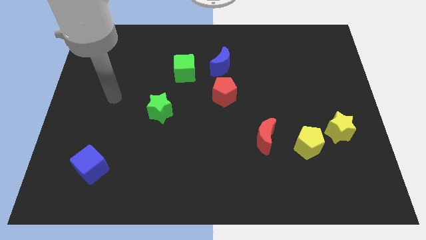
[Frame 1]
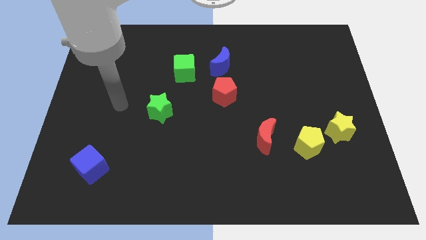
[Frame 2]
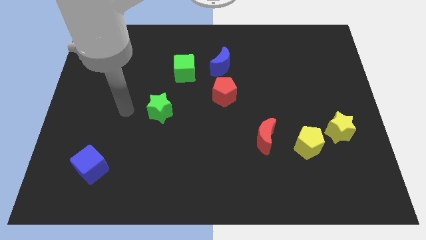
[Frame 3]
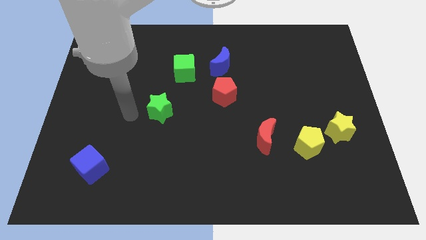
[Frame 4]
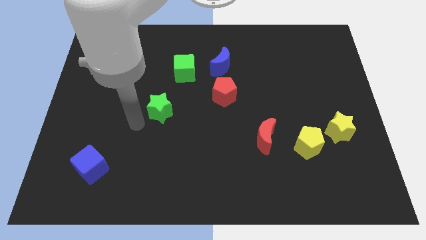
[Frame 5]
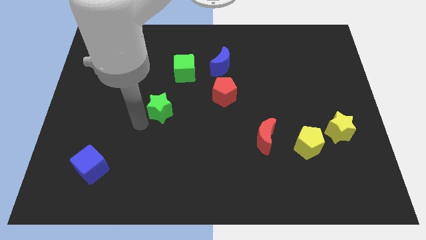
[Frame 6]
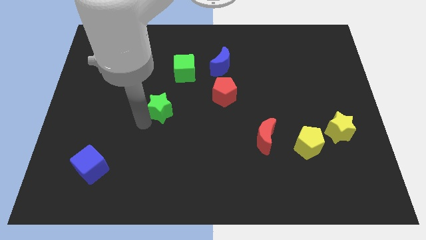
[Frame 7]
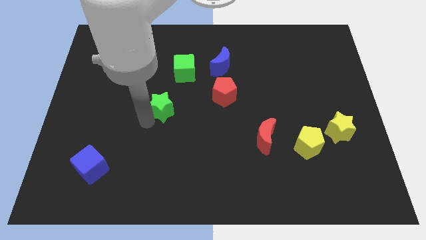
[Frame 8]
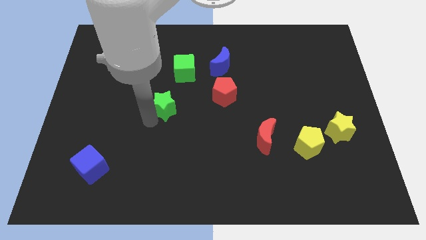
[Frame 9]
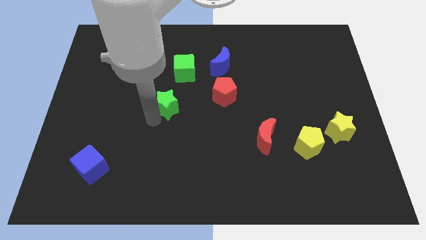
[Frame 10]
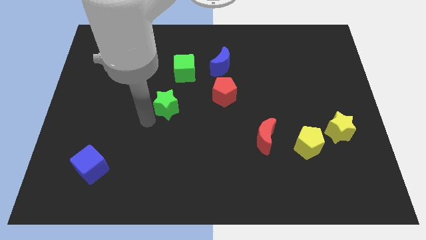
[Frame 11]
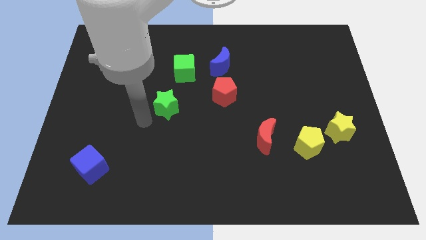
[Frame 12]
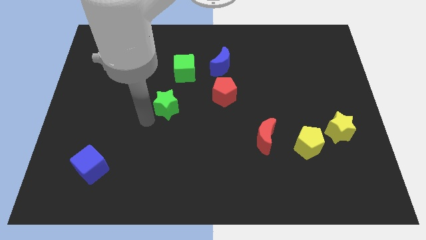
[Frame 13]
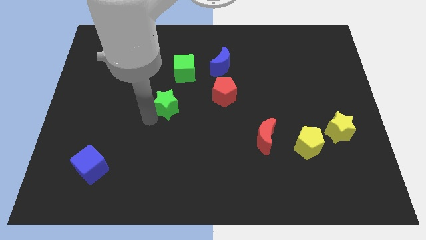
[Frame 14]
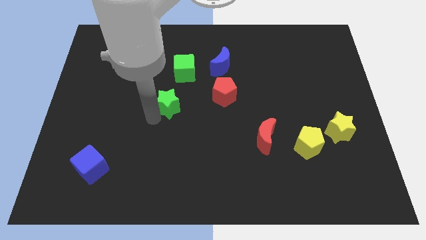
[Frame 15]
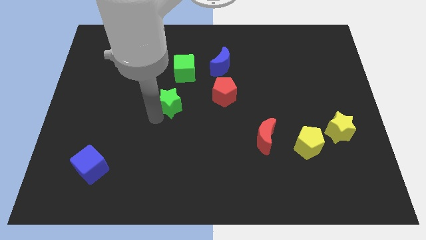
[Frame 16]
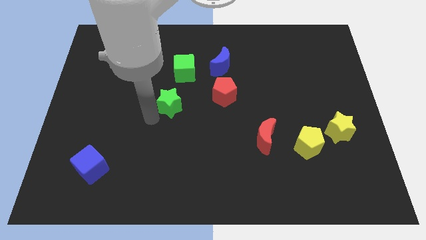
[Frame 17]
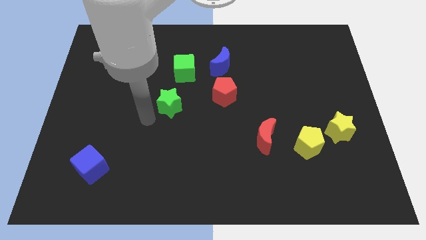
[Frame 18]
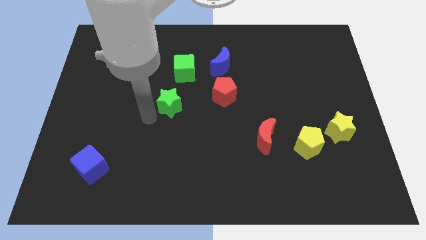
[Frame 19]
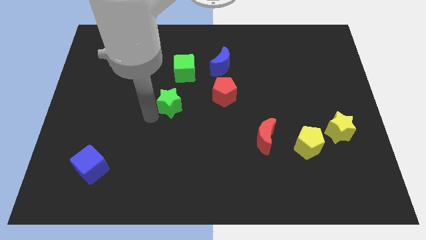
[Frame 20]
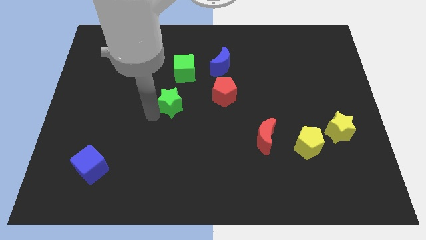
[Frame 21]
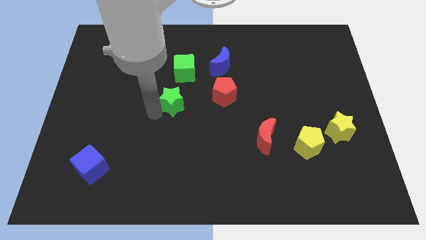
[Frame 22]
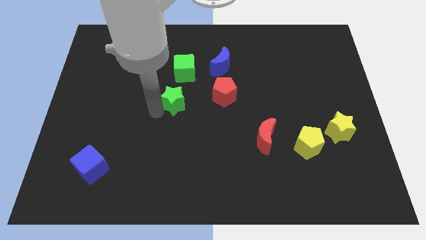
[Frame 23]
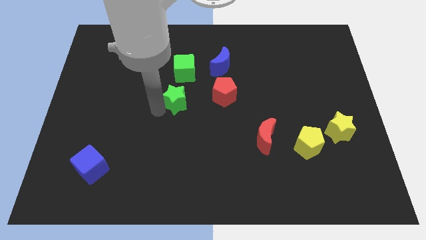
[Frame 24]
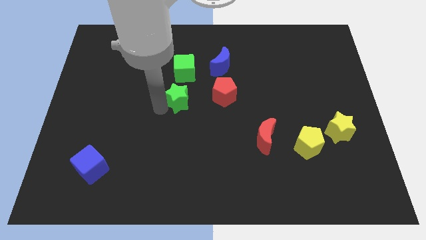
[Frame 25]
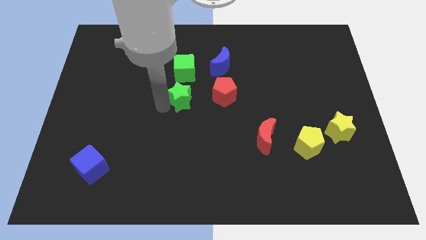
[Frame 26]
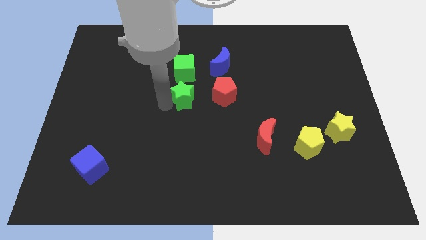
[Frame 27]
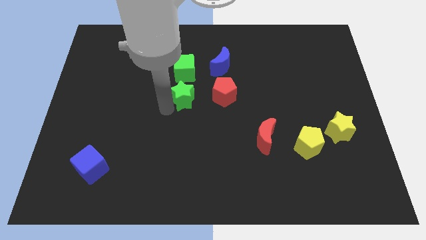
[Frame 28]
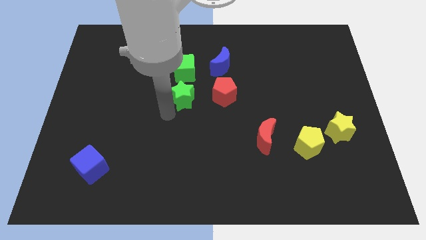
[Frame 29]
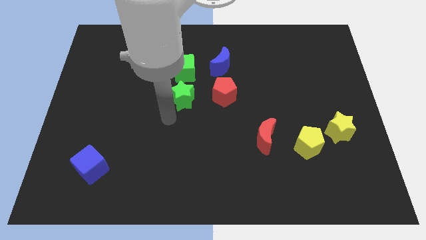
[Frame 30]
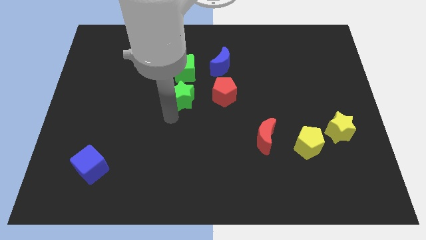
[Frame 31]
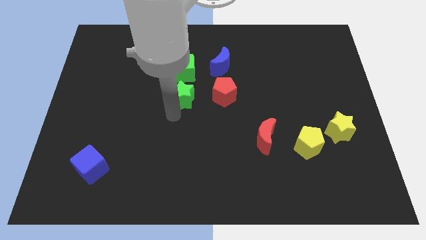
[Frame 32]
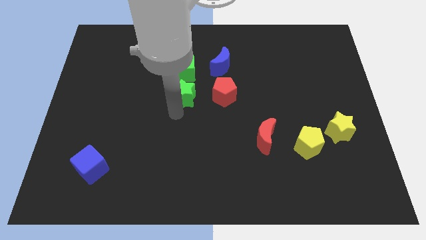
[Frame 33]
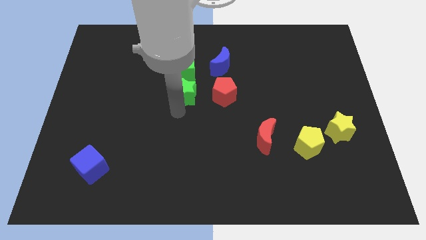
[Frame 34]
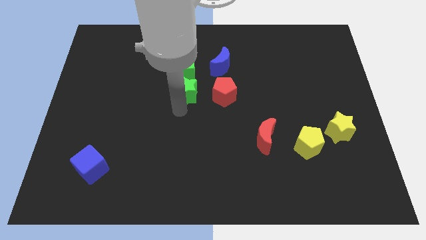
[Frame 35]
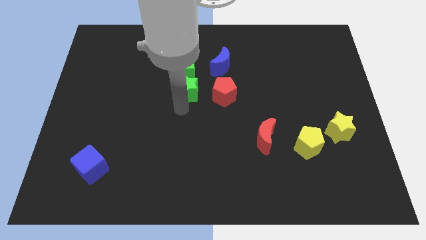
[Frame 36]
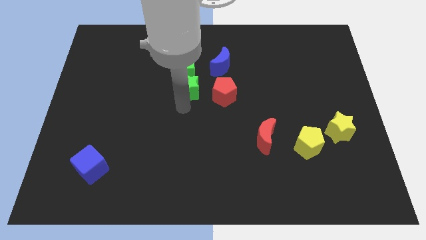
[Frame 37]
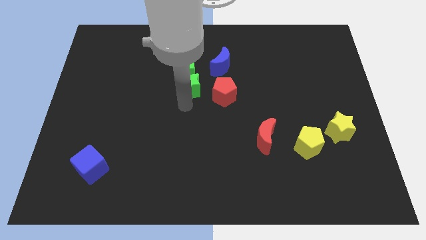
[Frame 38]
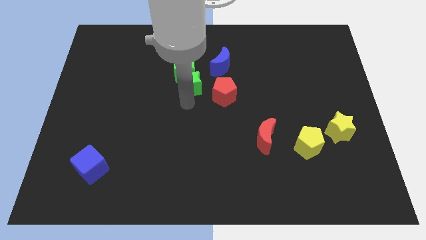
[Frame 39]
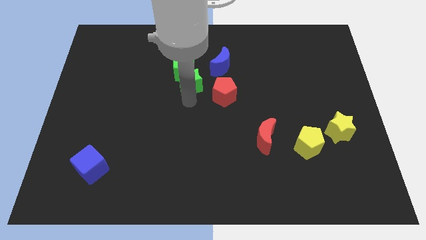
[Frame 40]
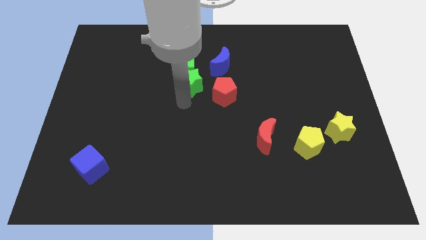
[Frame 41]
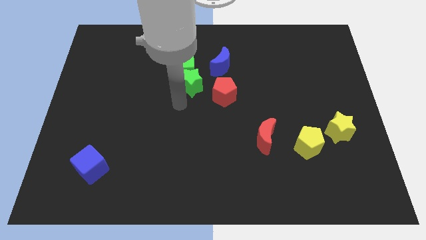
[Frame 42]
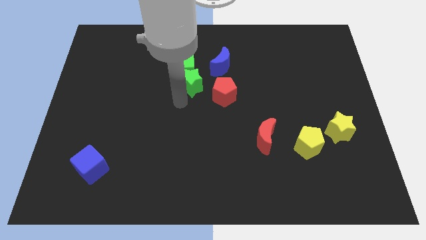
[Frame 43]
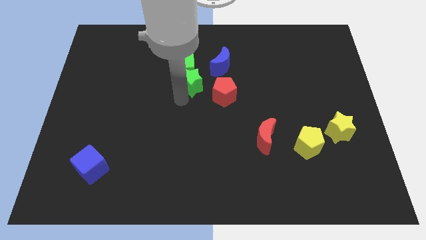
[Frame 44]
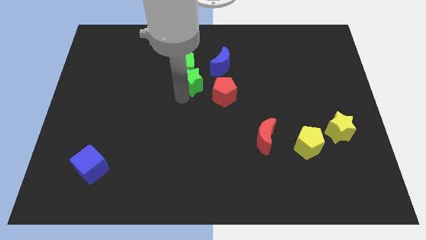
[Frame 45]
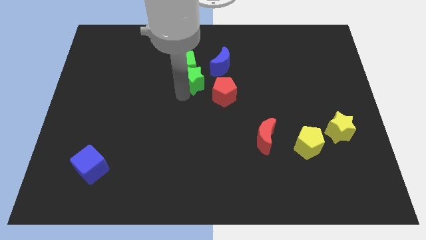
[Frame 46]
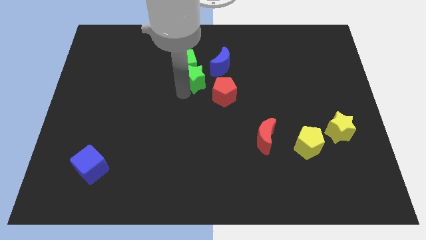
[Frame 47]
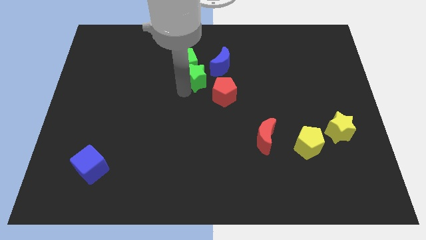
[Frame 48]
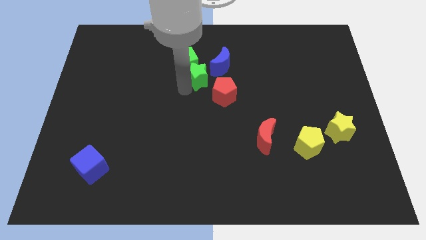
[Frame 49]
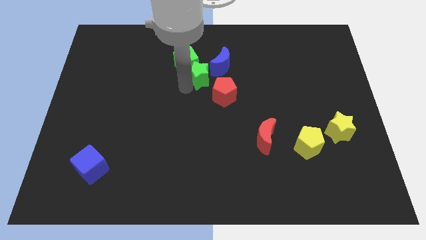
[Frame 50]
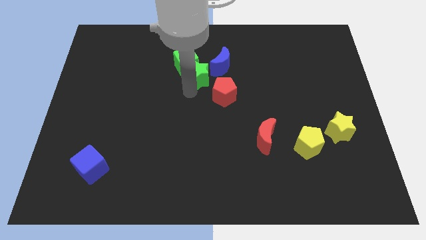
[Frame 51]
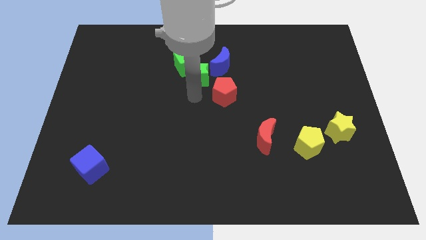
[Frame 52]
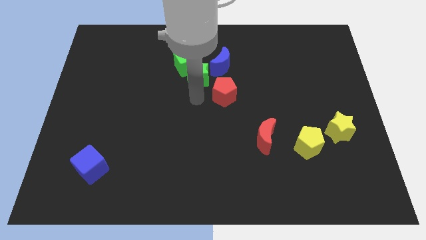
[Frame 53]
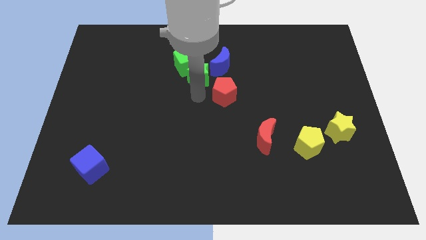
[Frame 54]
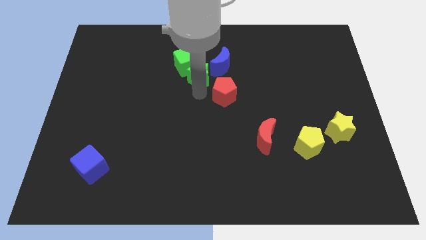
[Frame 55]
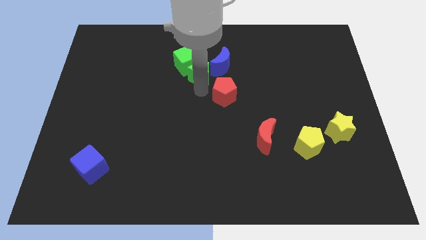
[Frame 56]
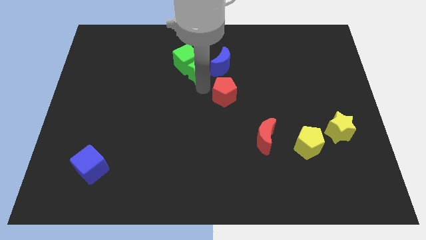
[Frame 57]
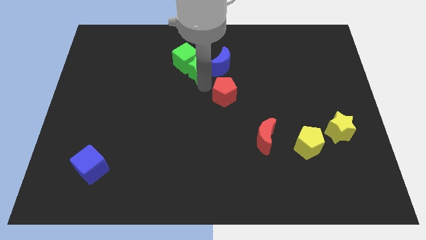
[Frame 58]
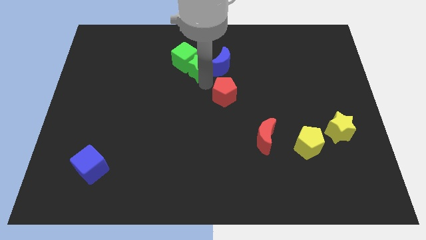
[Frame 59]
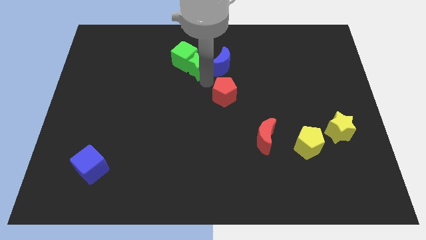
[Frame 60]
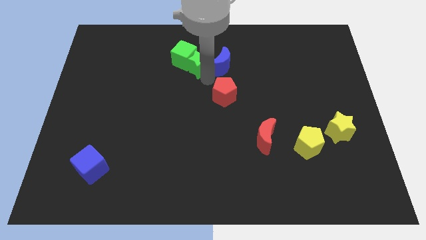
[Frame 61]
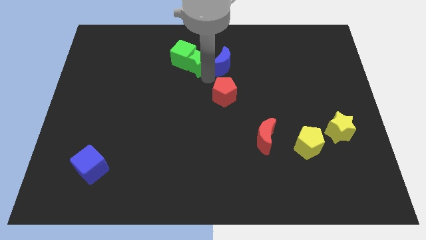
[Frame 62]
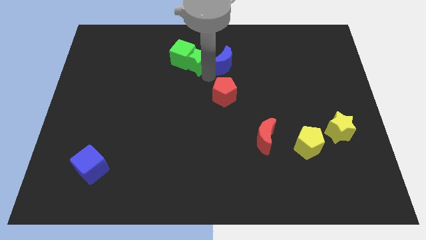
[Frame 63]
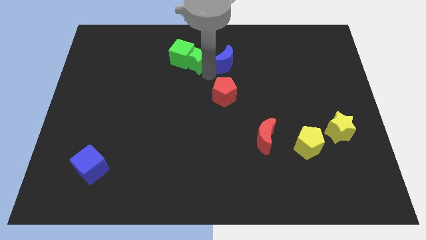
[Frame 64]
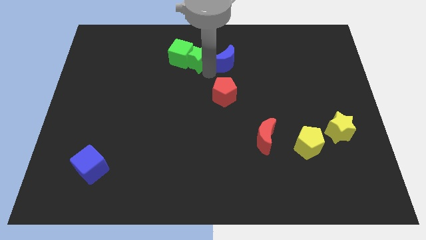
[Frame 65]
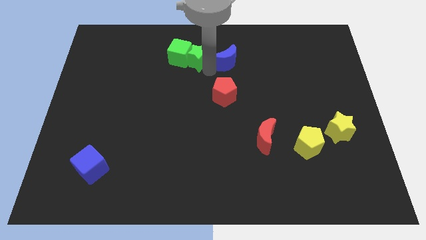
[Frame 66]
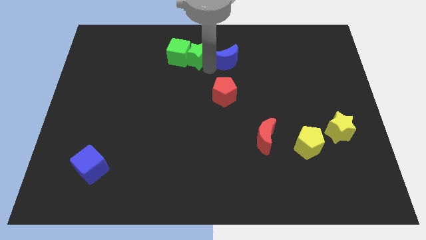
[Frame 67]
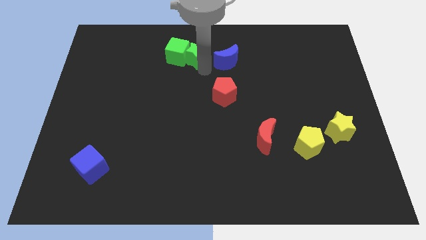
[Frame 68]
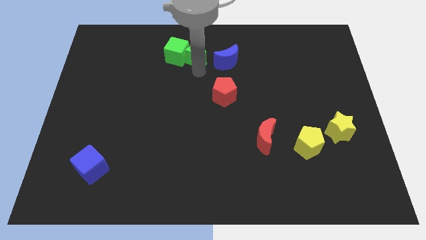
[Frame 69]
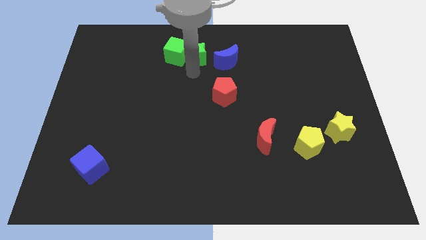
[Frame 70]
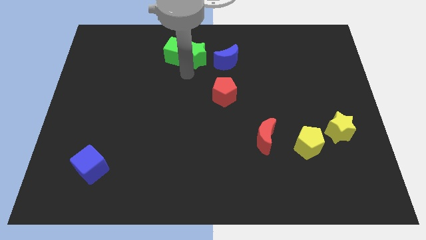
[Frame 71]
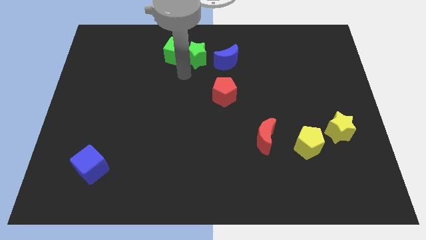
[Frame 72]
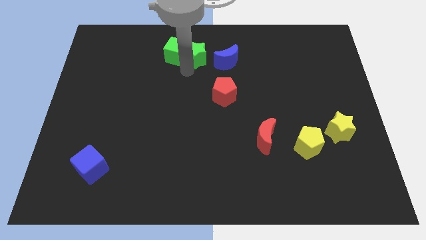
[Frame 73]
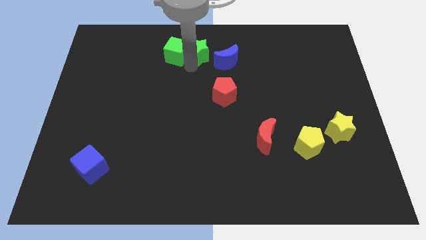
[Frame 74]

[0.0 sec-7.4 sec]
push the green star to the towards your base

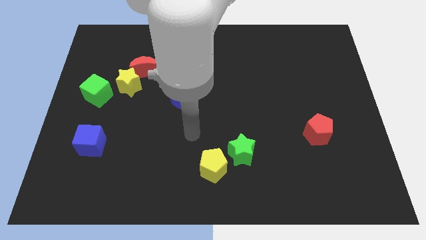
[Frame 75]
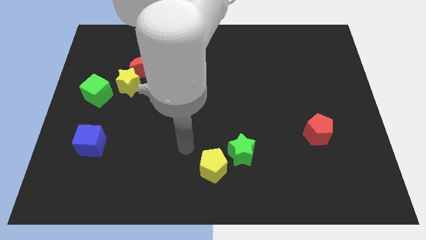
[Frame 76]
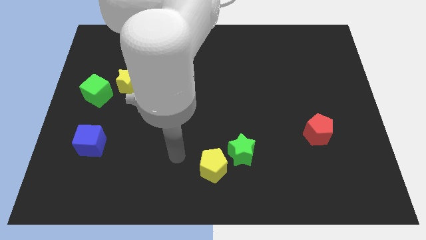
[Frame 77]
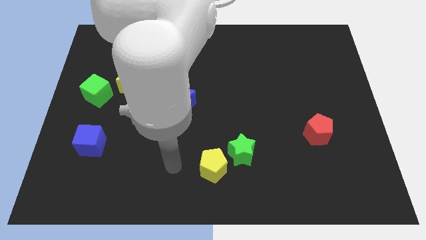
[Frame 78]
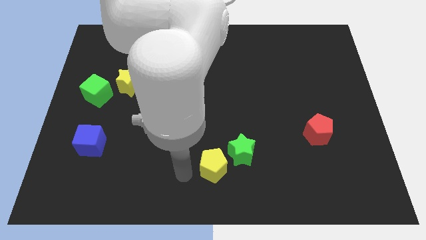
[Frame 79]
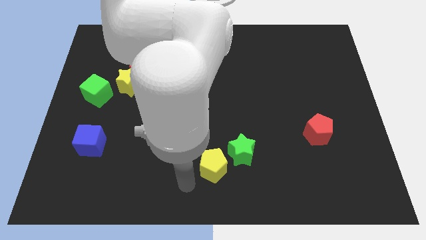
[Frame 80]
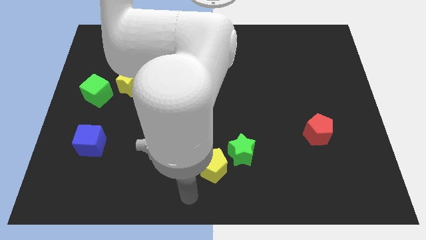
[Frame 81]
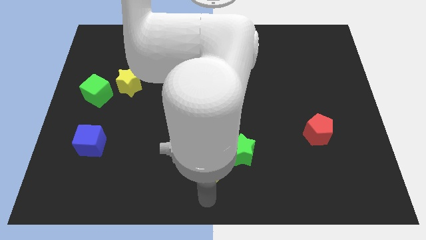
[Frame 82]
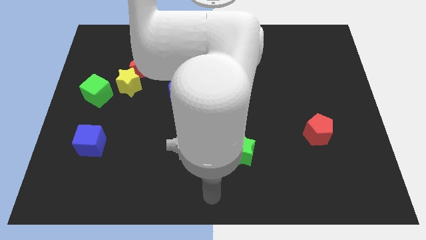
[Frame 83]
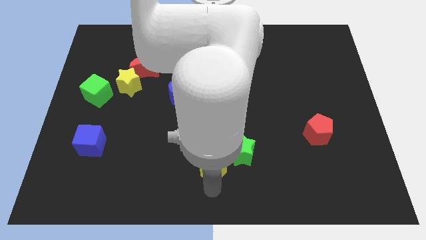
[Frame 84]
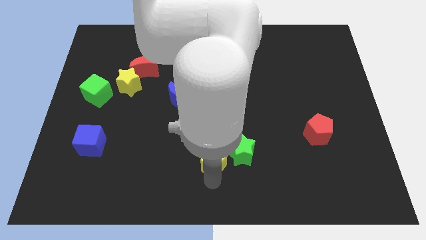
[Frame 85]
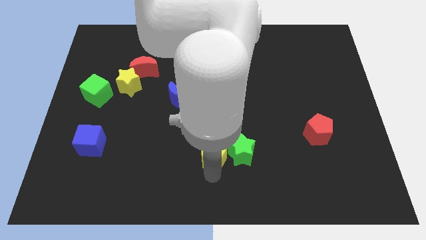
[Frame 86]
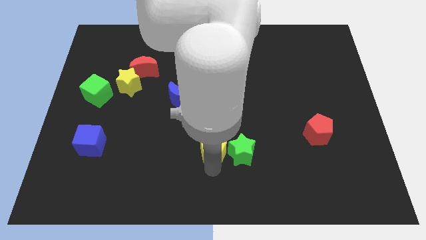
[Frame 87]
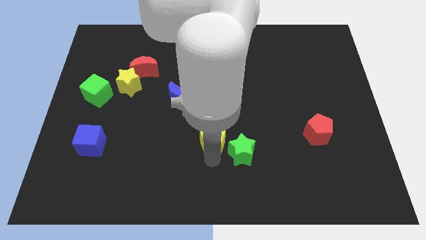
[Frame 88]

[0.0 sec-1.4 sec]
move the yellow pentagon to the center of the board
